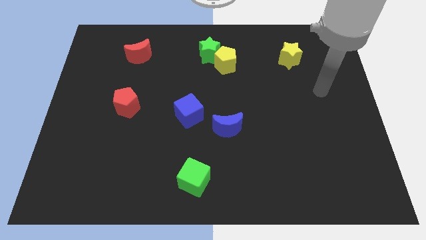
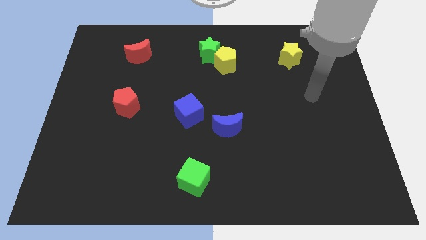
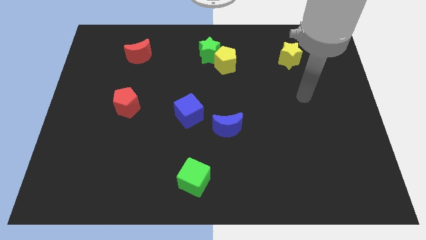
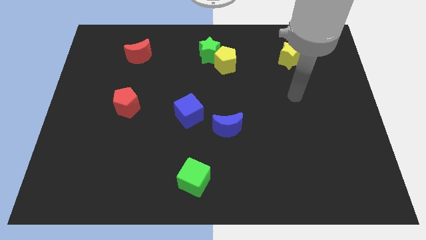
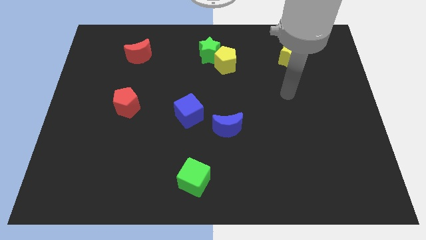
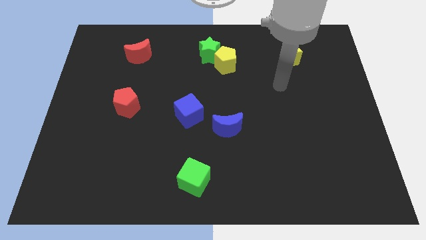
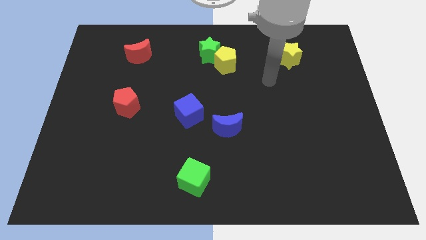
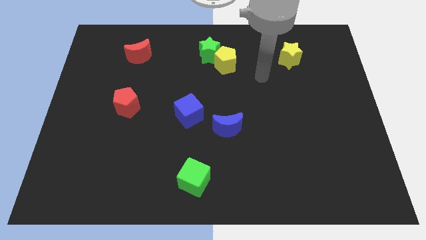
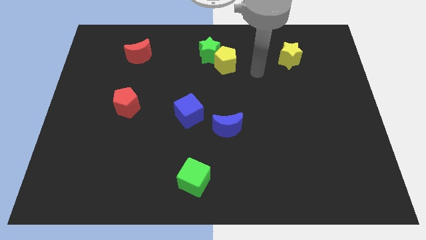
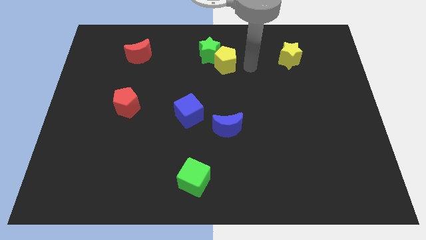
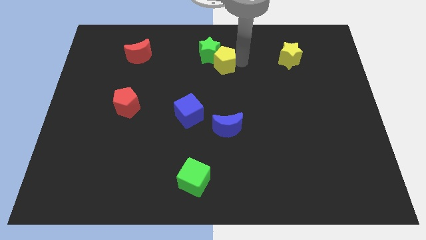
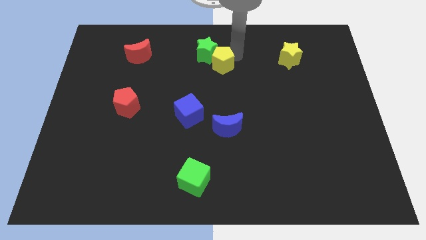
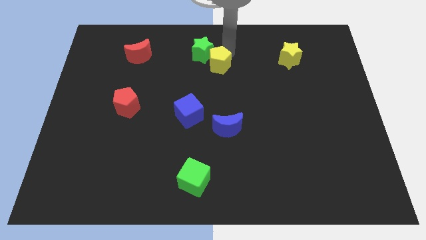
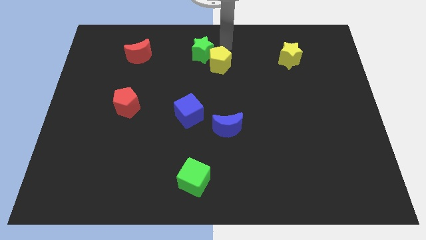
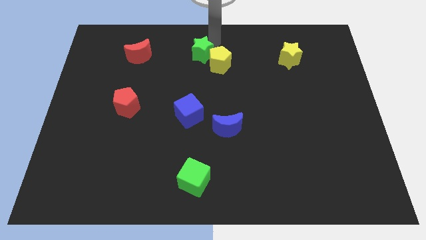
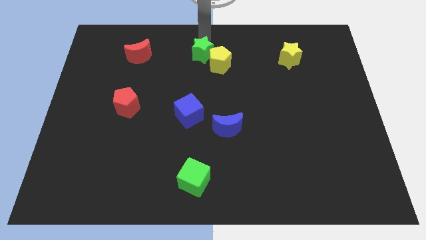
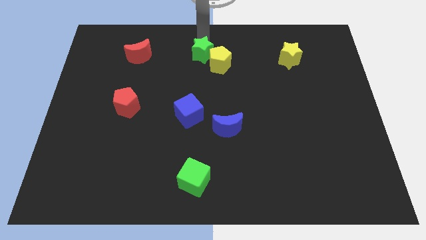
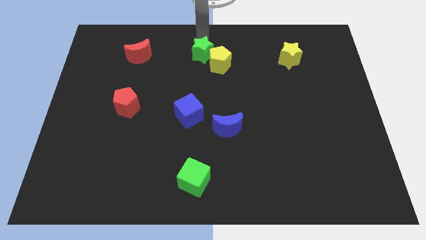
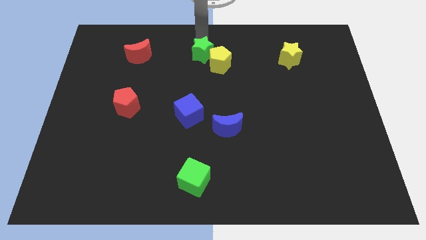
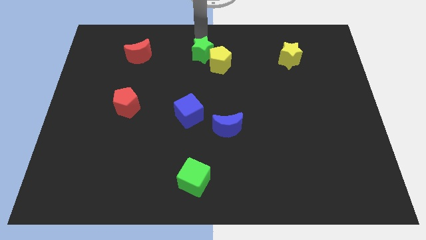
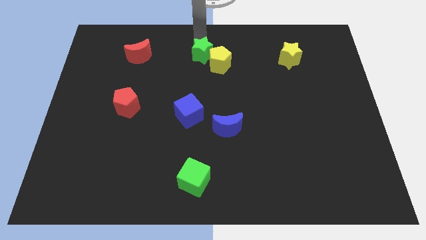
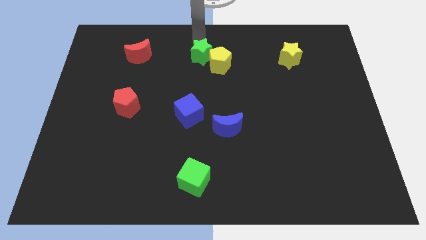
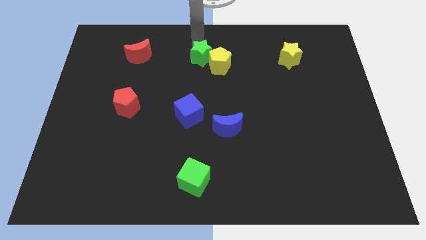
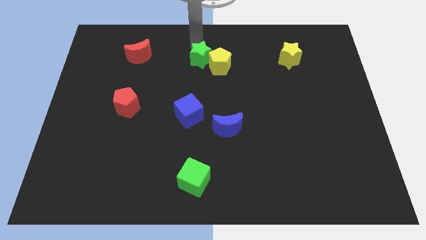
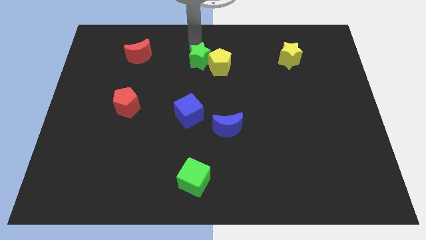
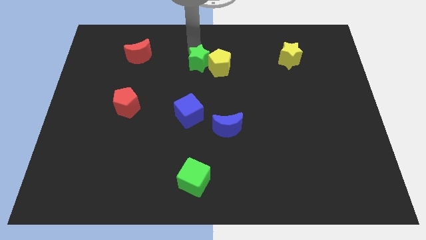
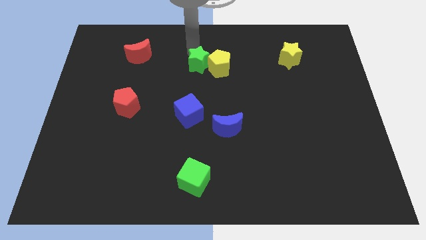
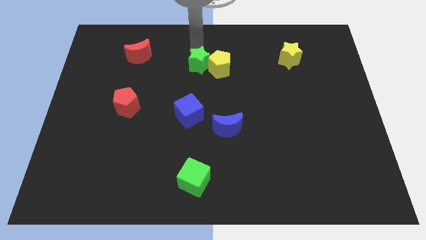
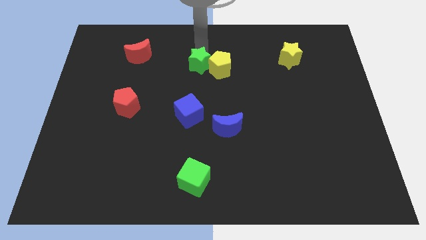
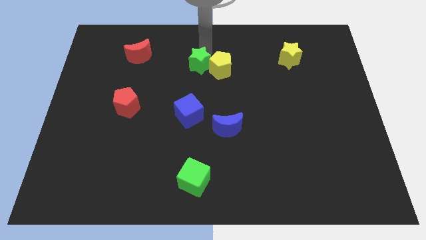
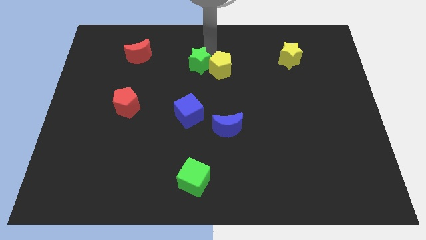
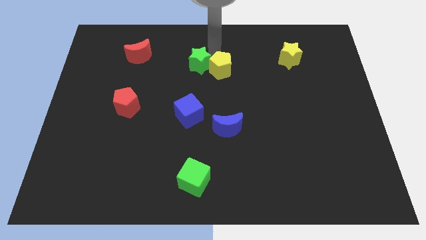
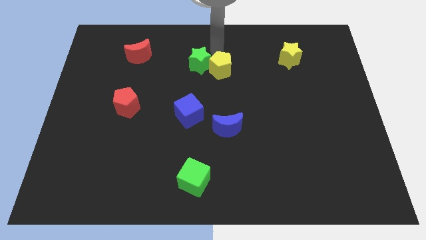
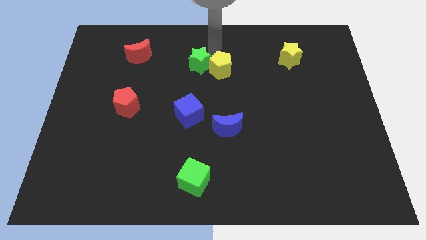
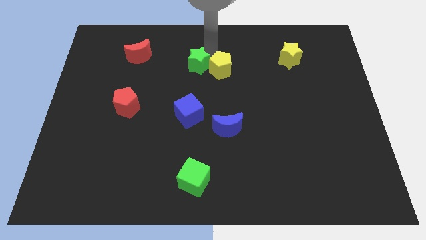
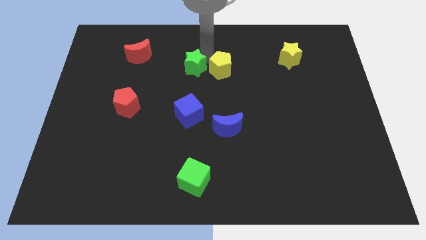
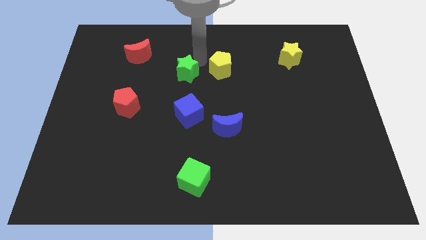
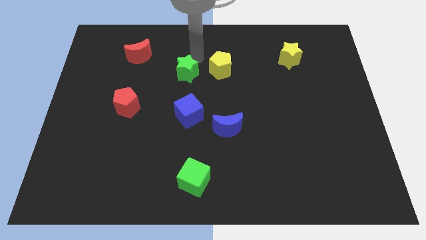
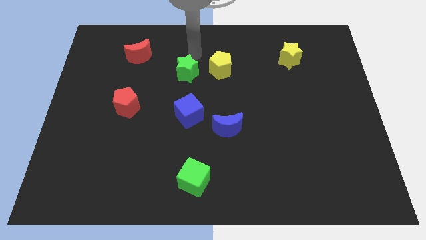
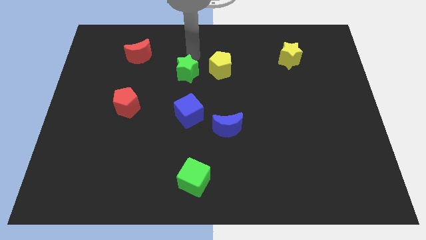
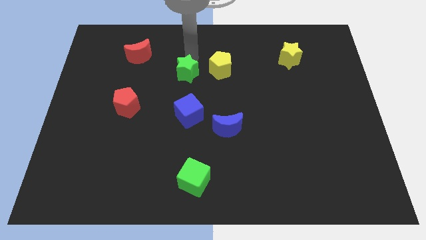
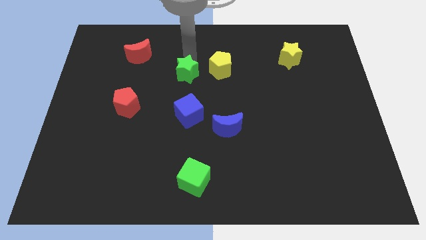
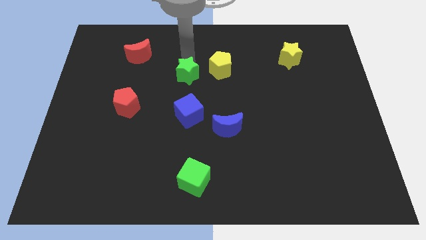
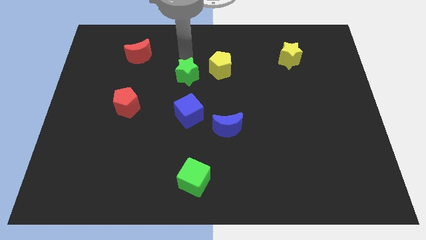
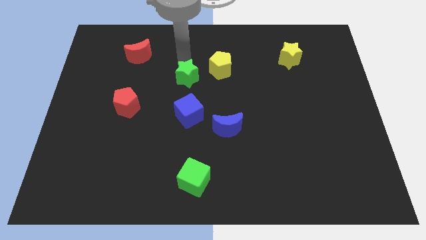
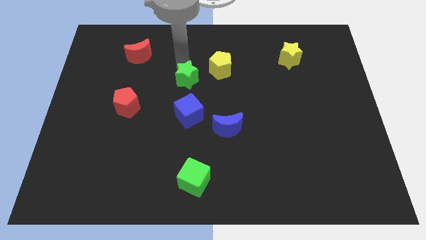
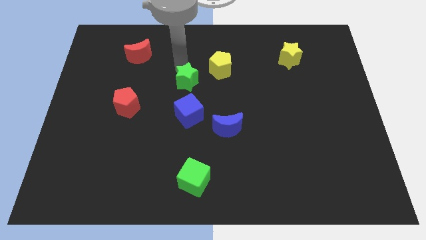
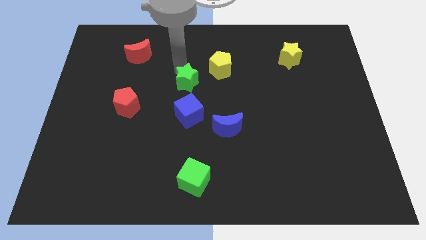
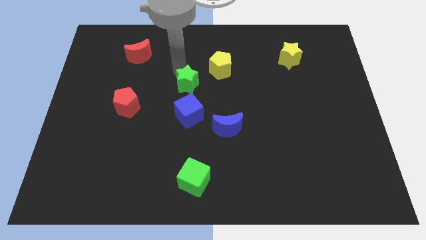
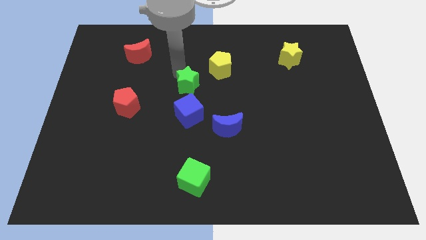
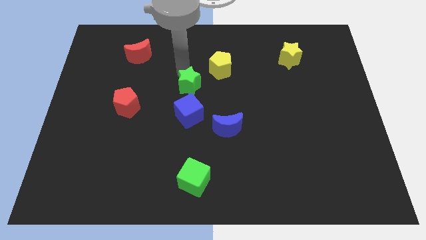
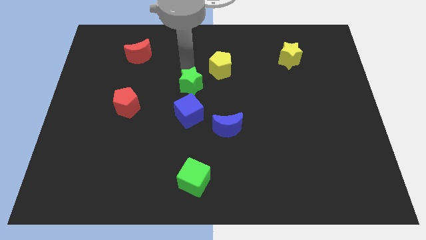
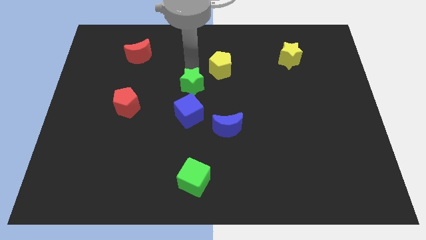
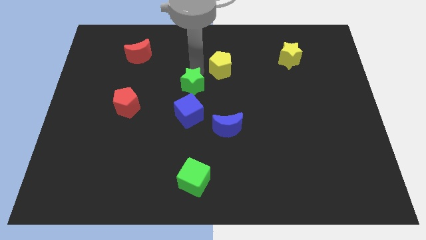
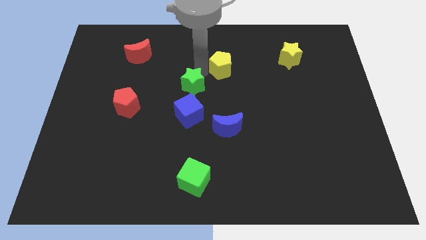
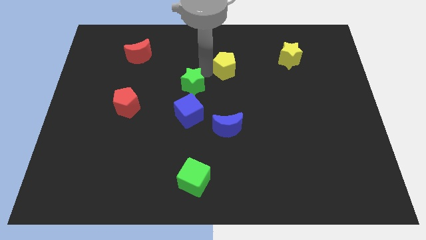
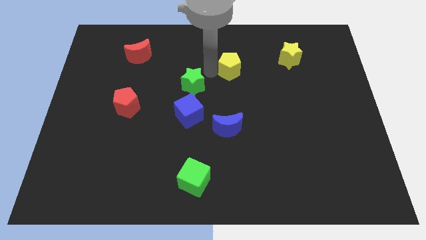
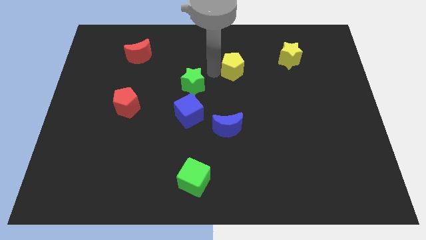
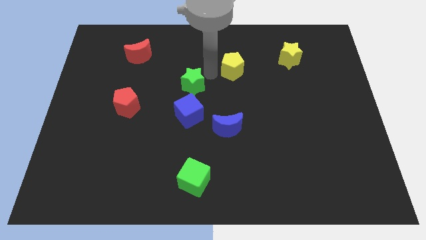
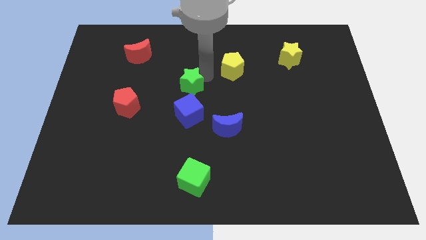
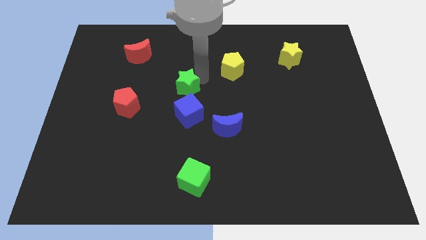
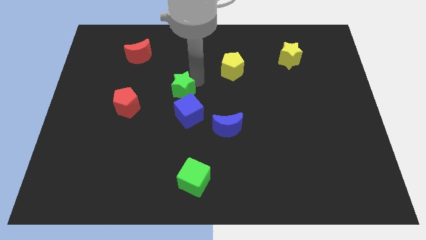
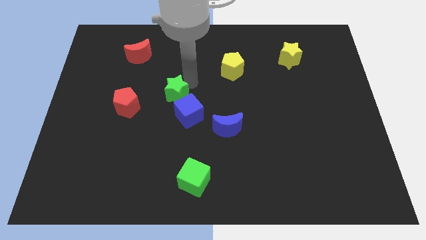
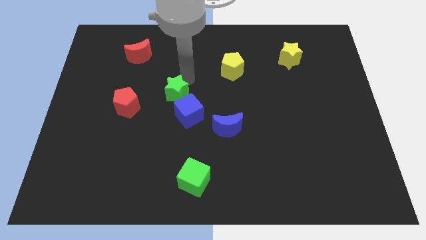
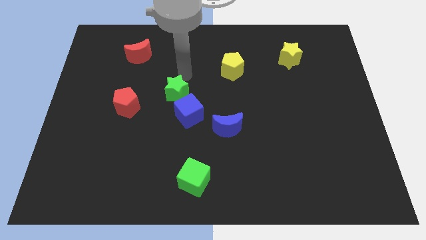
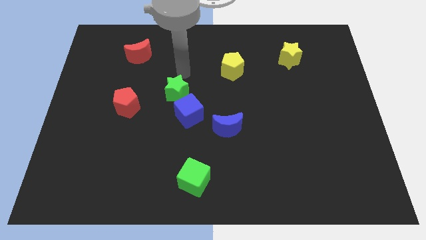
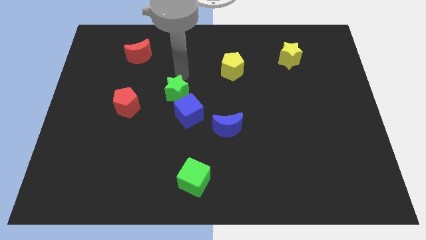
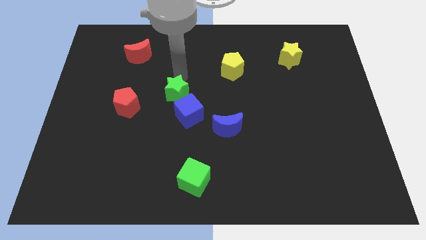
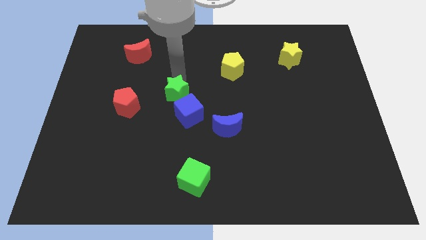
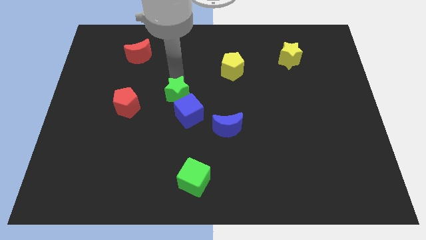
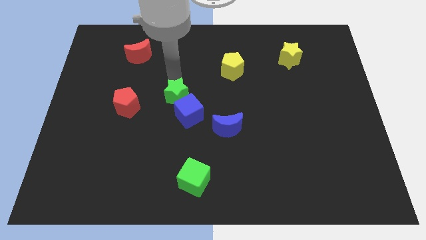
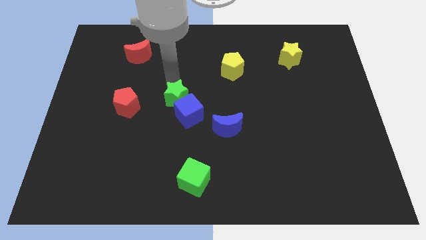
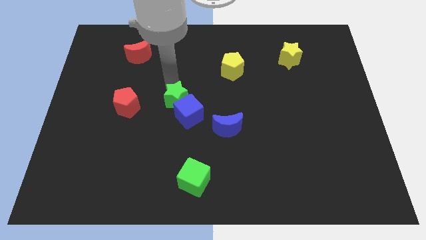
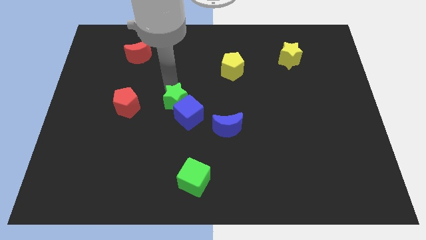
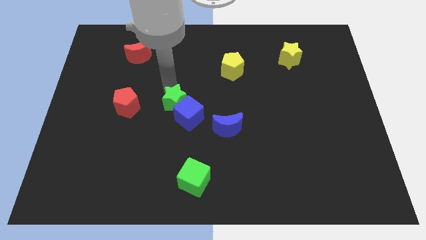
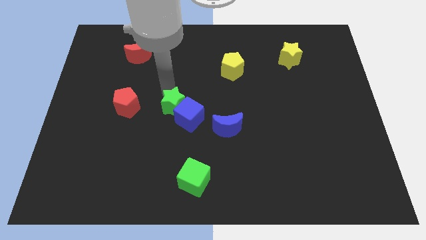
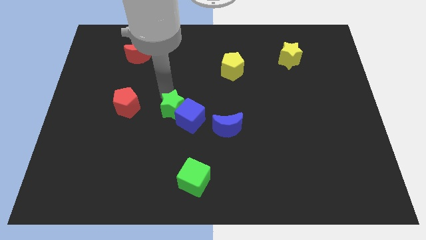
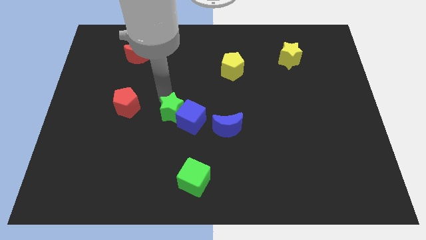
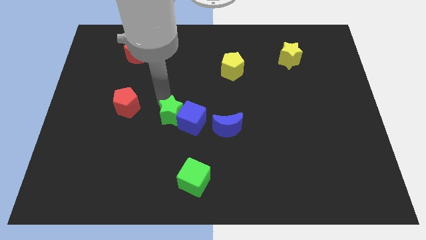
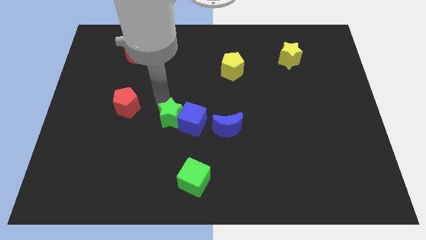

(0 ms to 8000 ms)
put the green star to the bottom left side of the blue cube
